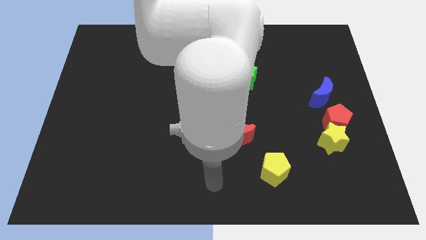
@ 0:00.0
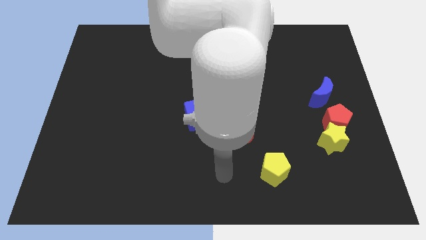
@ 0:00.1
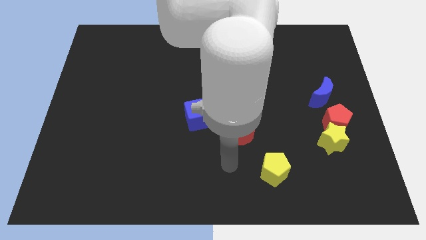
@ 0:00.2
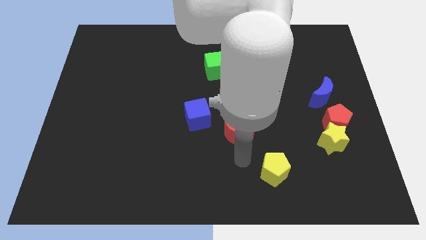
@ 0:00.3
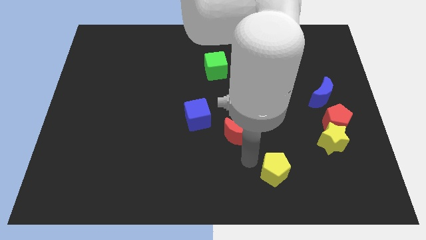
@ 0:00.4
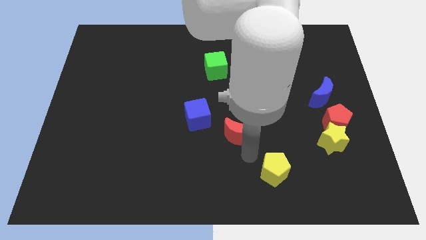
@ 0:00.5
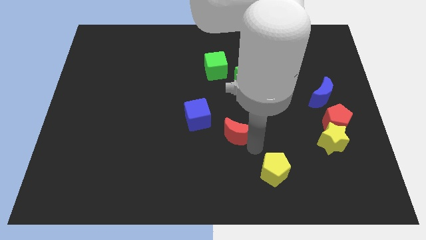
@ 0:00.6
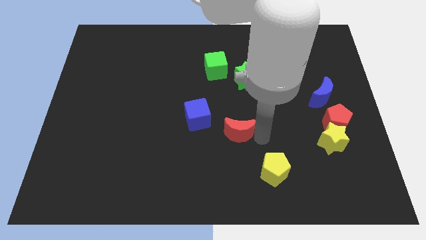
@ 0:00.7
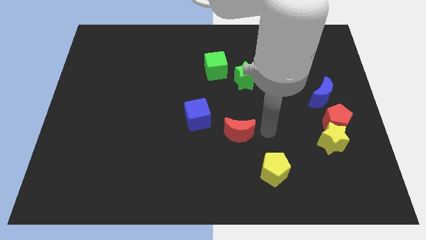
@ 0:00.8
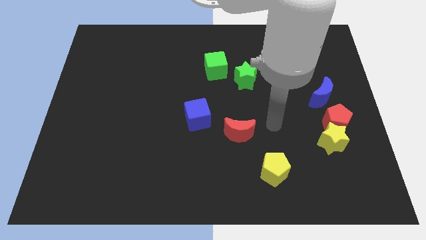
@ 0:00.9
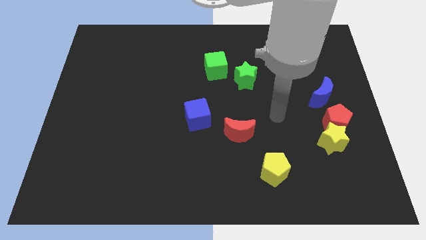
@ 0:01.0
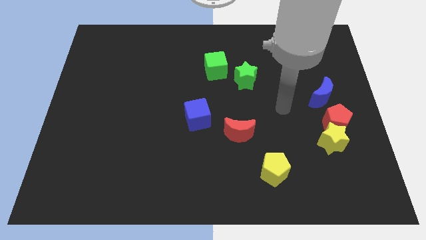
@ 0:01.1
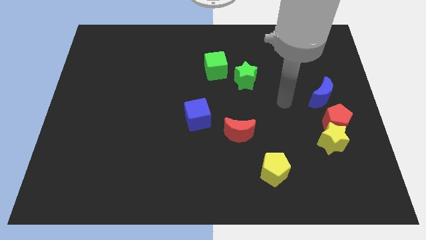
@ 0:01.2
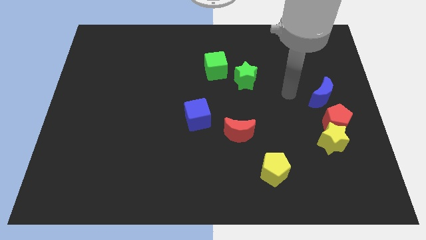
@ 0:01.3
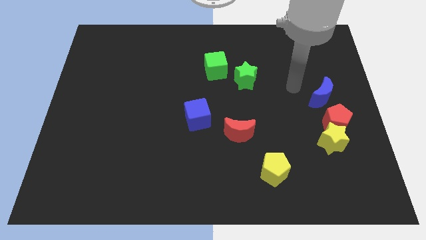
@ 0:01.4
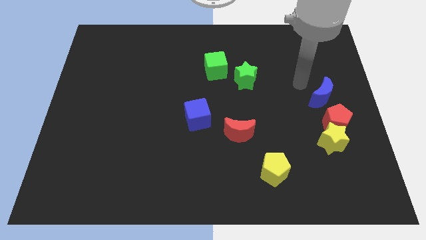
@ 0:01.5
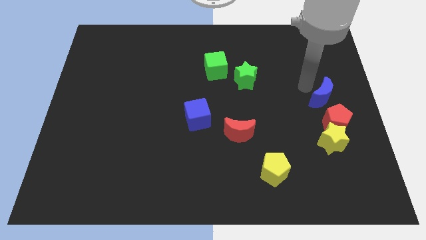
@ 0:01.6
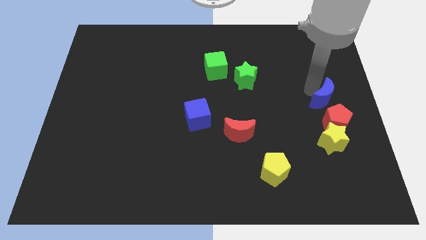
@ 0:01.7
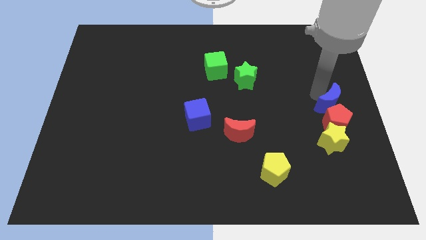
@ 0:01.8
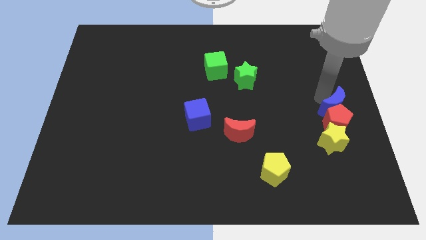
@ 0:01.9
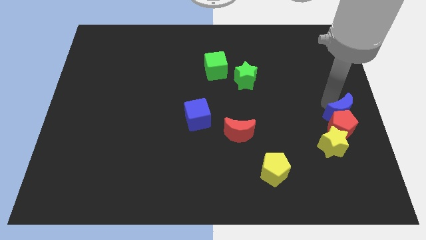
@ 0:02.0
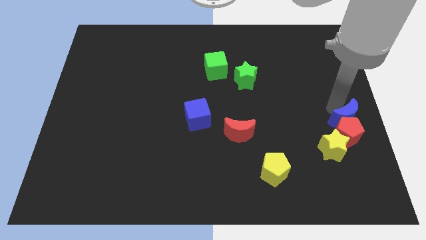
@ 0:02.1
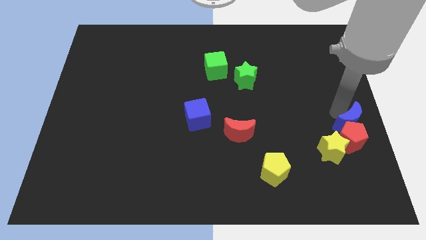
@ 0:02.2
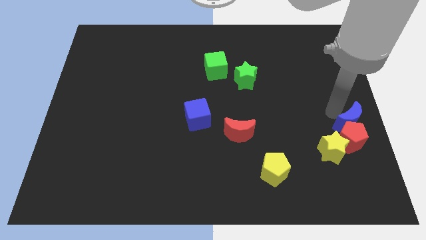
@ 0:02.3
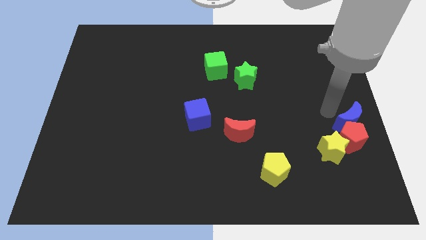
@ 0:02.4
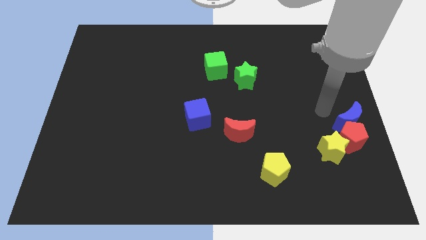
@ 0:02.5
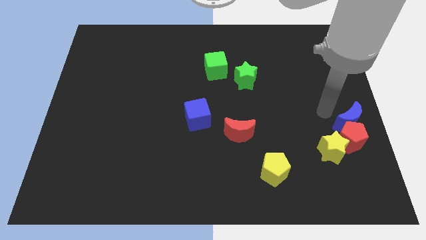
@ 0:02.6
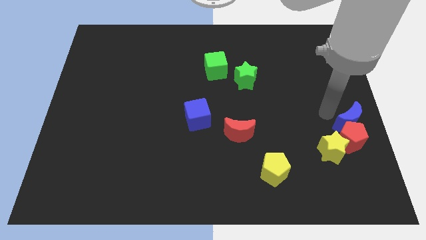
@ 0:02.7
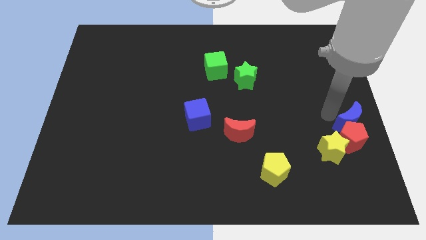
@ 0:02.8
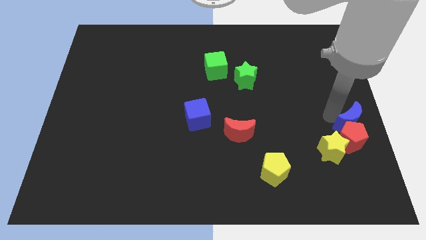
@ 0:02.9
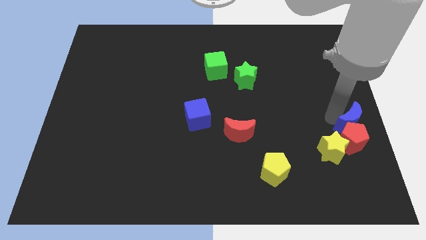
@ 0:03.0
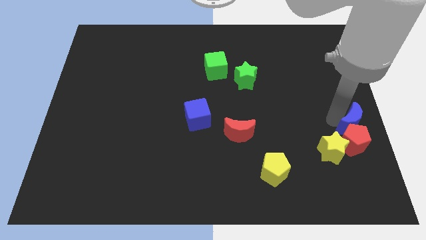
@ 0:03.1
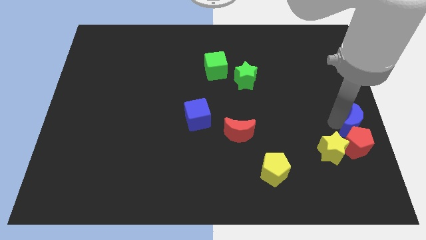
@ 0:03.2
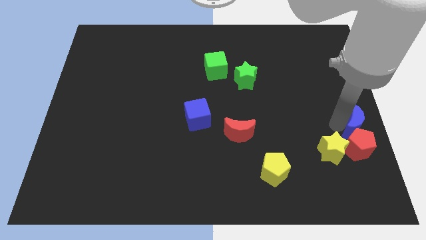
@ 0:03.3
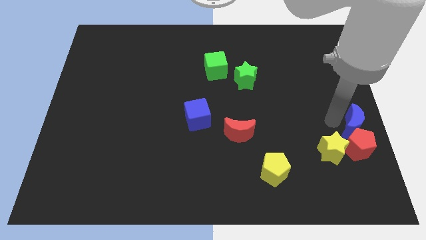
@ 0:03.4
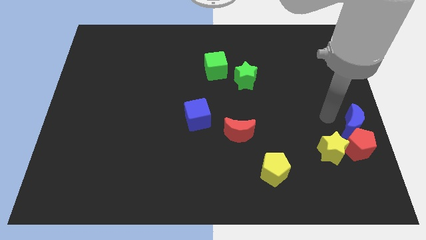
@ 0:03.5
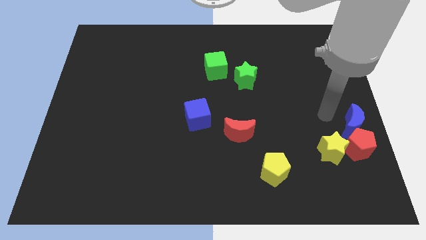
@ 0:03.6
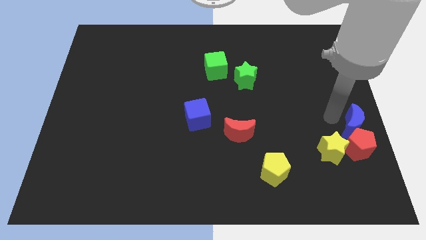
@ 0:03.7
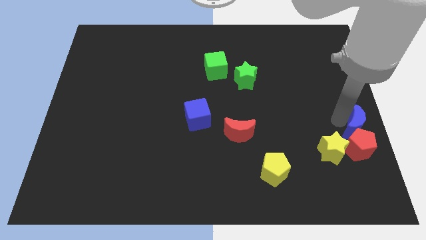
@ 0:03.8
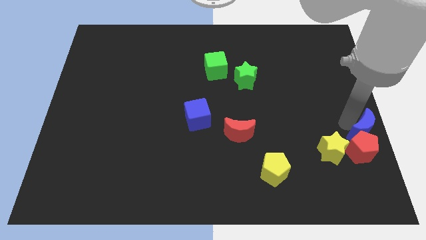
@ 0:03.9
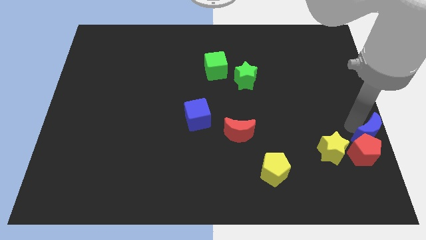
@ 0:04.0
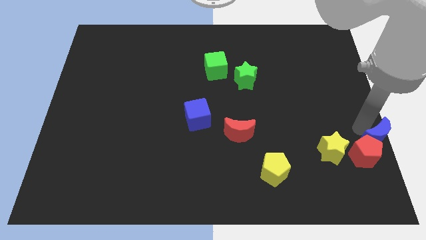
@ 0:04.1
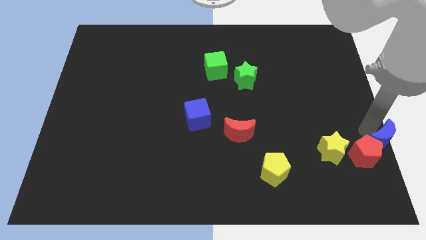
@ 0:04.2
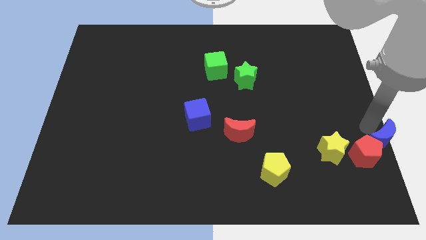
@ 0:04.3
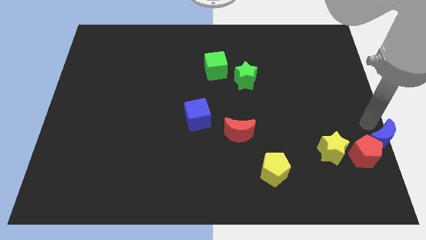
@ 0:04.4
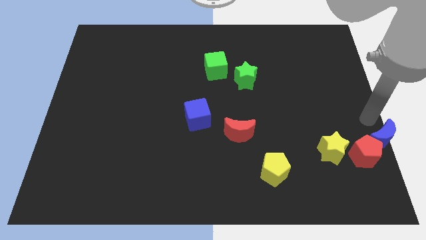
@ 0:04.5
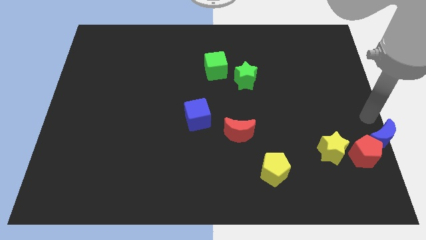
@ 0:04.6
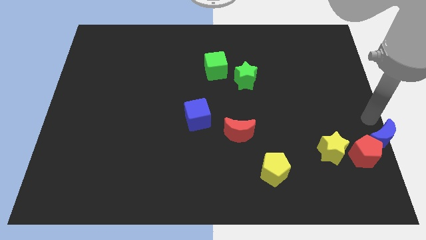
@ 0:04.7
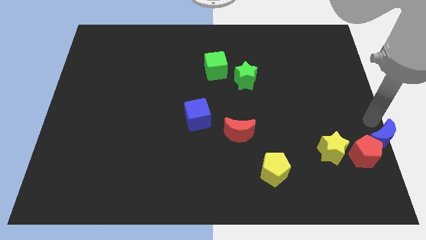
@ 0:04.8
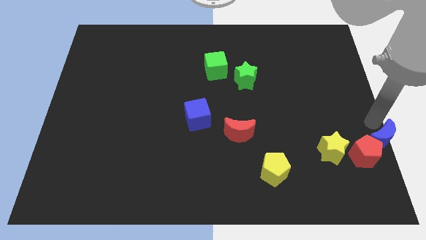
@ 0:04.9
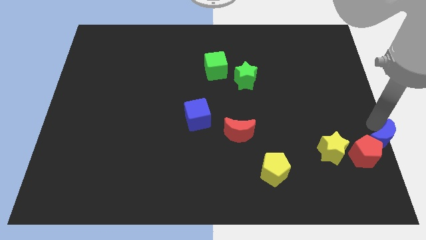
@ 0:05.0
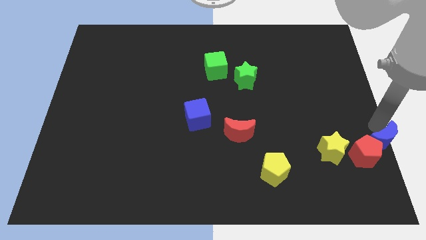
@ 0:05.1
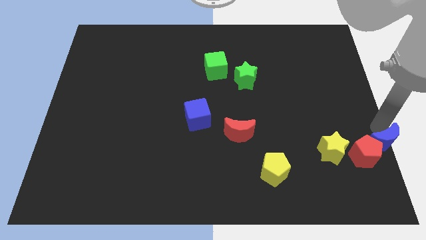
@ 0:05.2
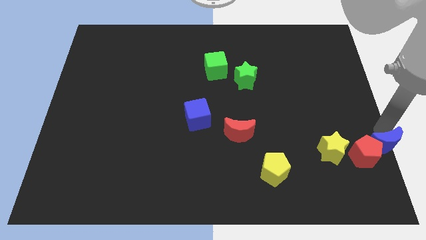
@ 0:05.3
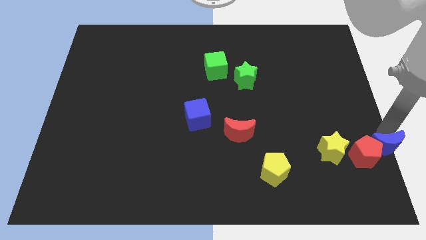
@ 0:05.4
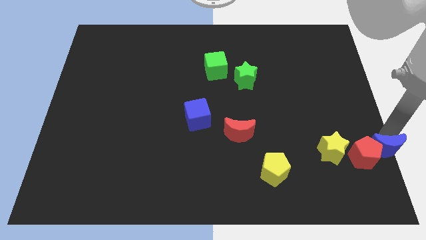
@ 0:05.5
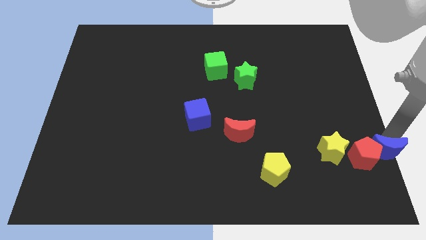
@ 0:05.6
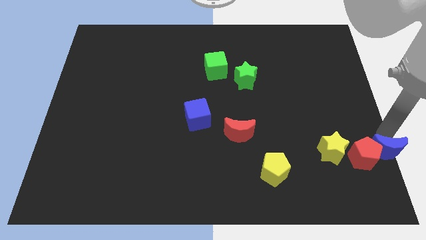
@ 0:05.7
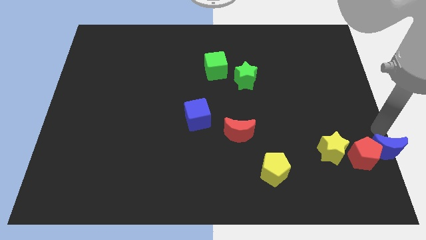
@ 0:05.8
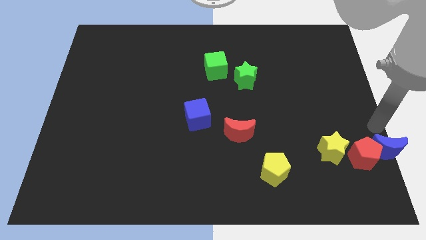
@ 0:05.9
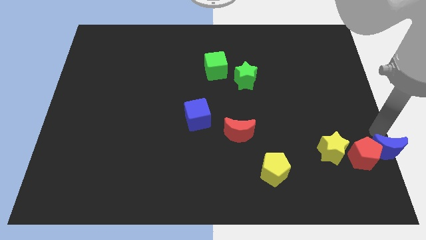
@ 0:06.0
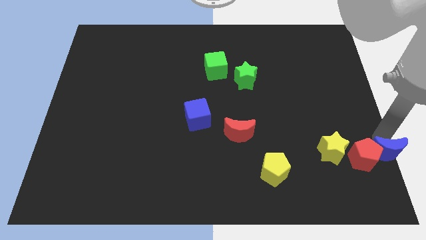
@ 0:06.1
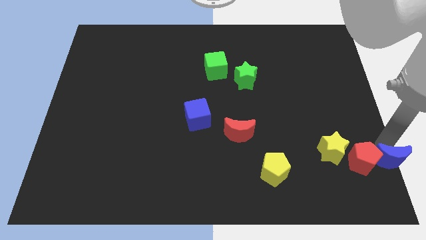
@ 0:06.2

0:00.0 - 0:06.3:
put the blue moon to the bottom right

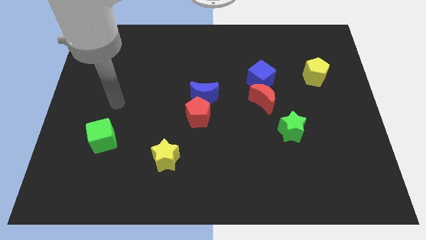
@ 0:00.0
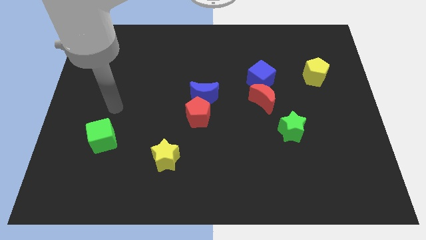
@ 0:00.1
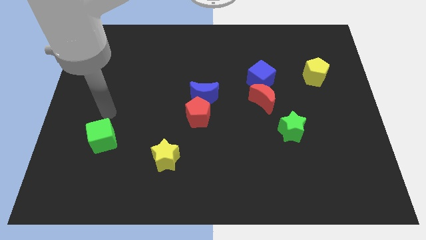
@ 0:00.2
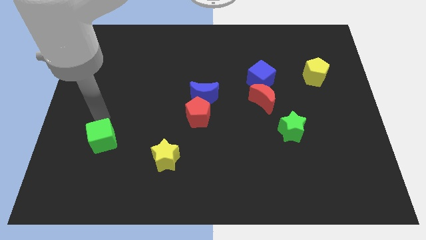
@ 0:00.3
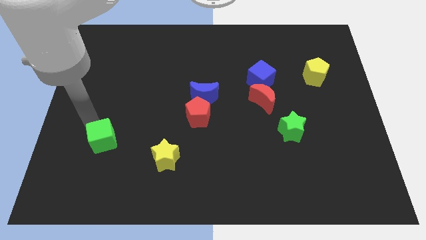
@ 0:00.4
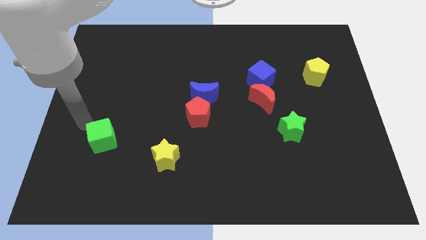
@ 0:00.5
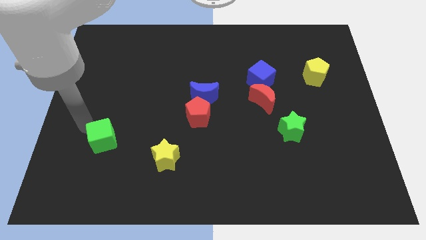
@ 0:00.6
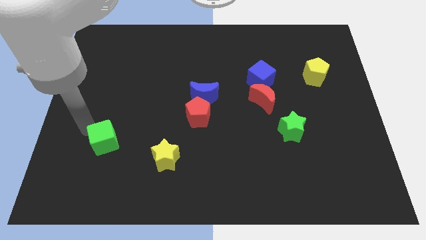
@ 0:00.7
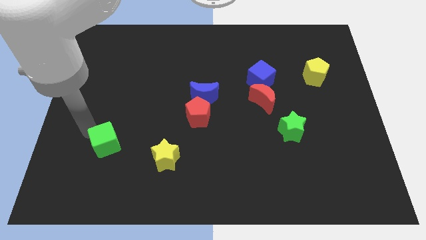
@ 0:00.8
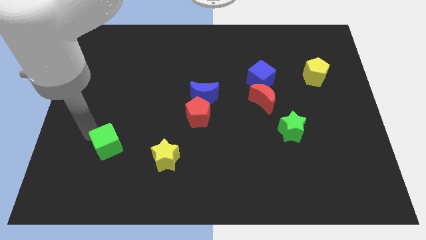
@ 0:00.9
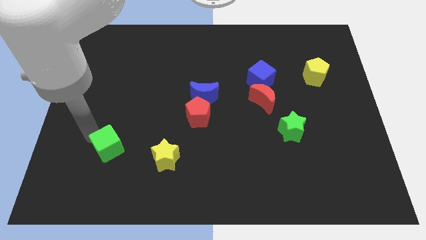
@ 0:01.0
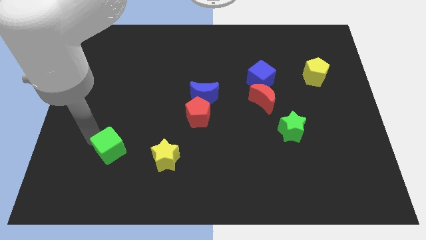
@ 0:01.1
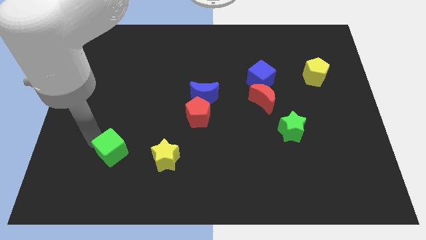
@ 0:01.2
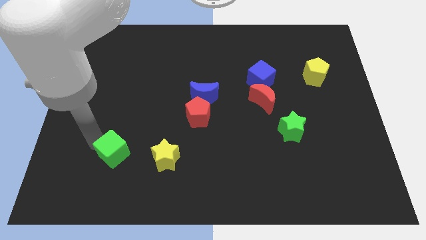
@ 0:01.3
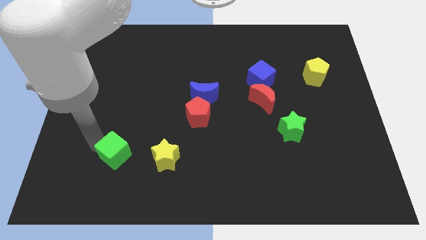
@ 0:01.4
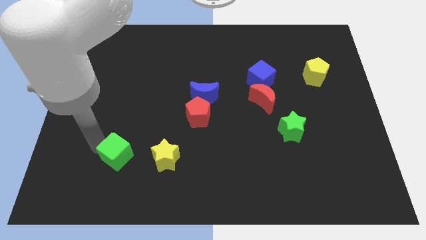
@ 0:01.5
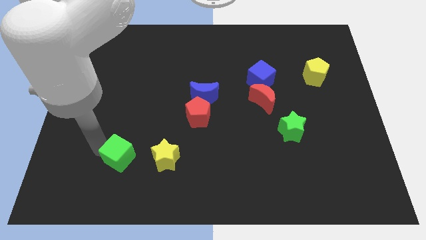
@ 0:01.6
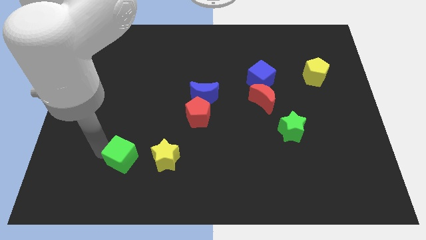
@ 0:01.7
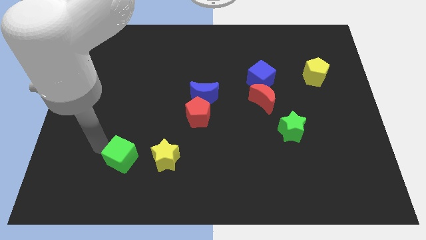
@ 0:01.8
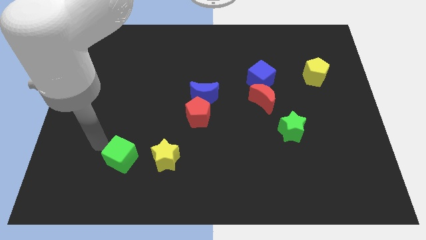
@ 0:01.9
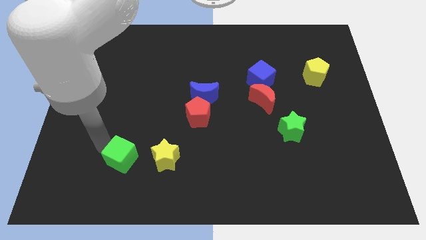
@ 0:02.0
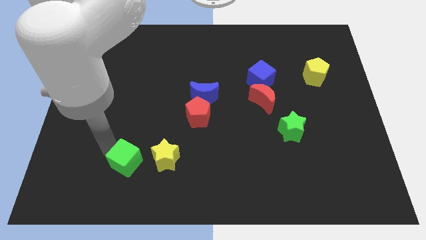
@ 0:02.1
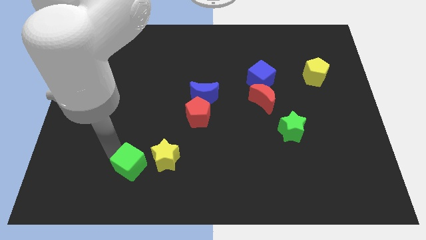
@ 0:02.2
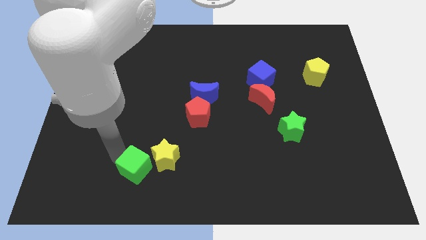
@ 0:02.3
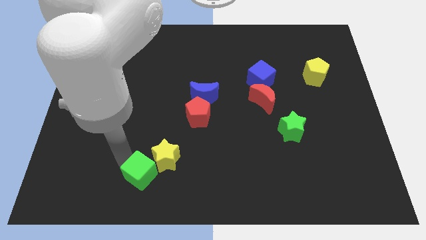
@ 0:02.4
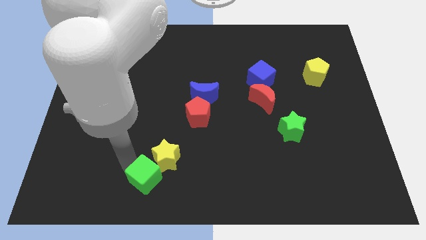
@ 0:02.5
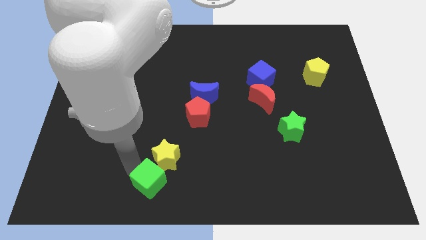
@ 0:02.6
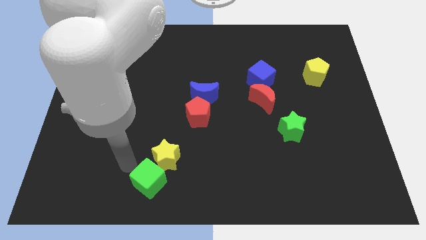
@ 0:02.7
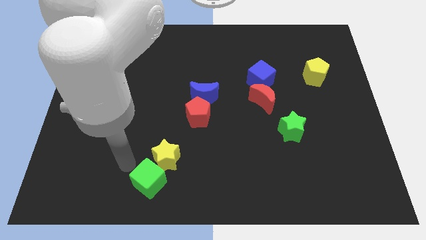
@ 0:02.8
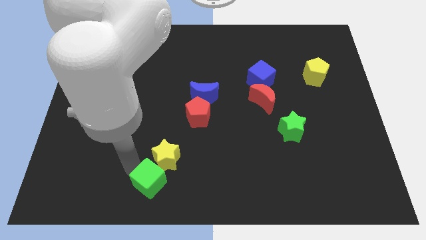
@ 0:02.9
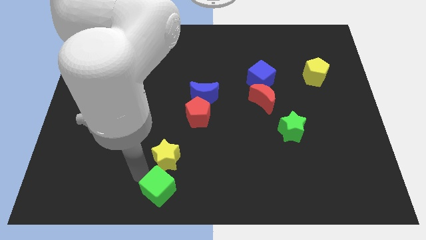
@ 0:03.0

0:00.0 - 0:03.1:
slide the green cube to the bottom
